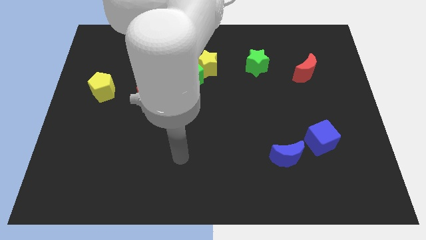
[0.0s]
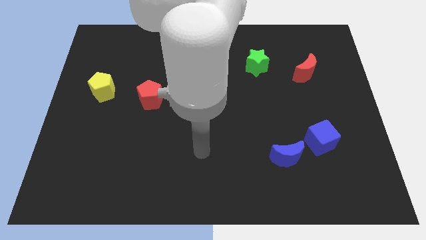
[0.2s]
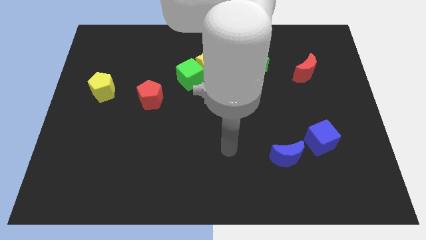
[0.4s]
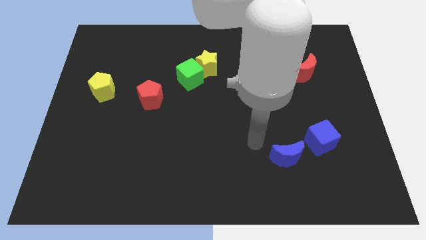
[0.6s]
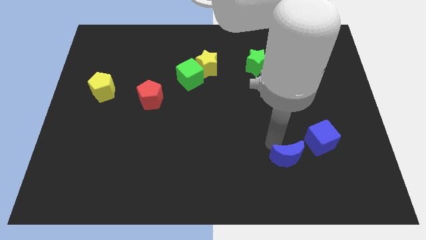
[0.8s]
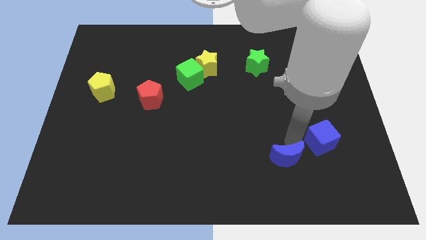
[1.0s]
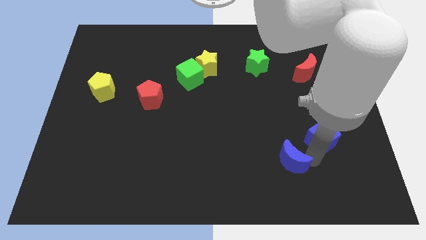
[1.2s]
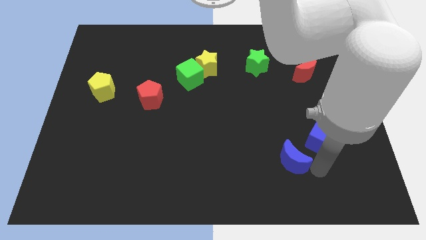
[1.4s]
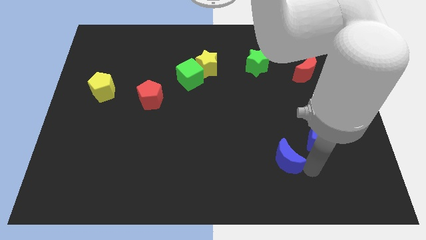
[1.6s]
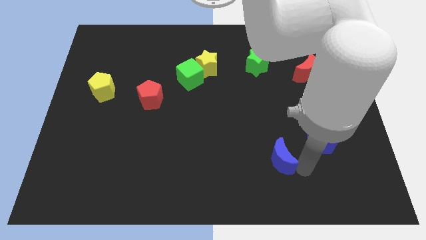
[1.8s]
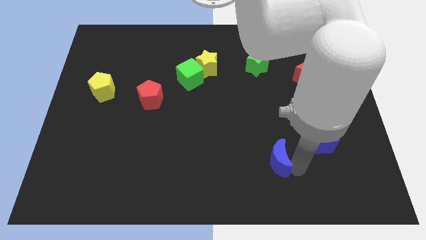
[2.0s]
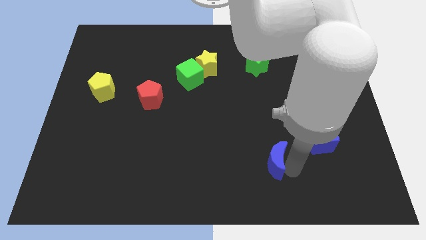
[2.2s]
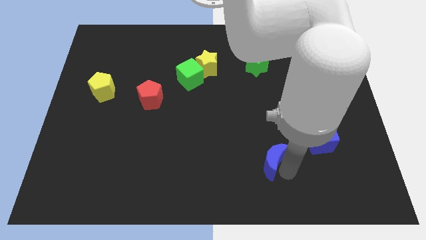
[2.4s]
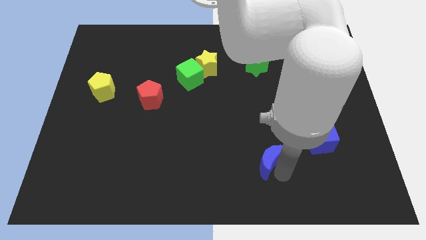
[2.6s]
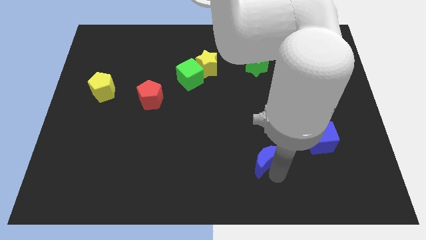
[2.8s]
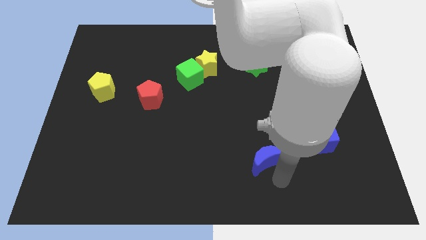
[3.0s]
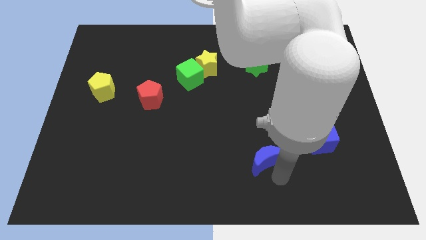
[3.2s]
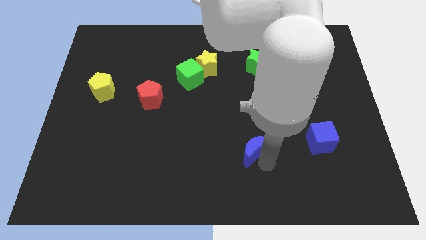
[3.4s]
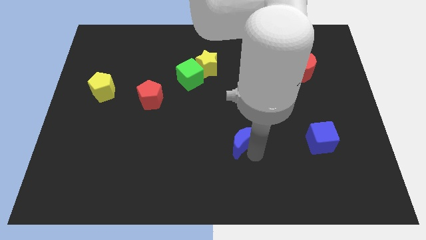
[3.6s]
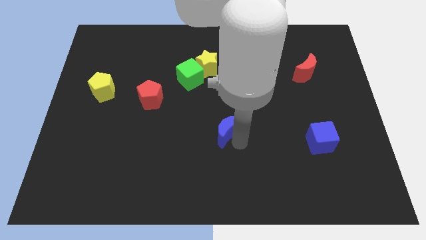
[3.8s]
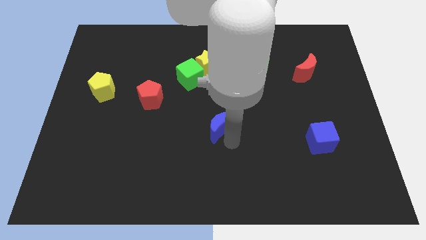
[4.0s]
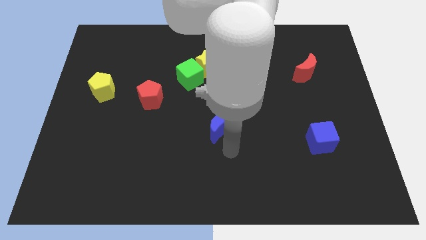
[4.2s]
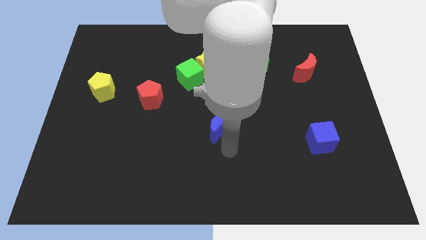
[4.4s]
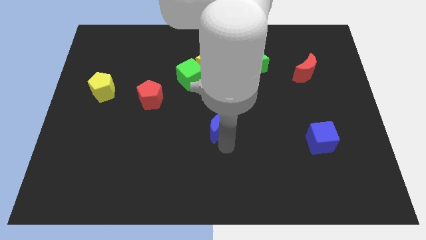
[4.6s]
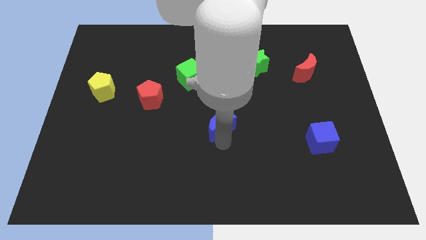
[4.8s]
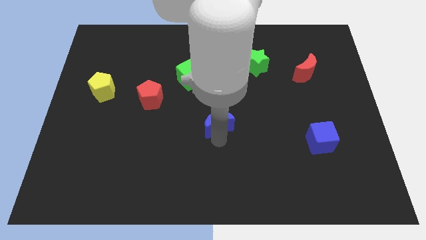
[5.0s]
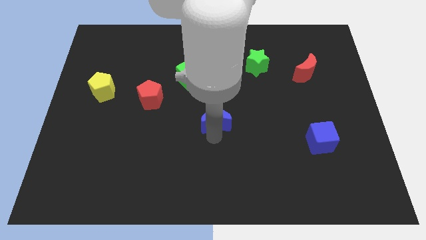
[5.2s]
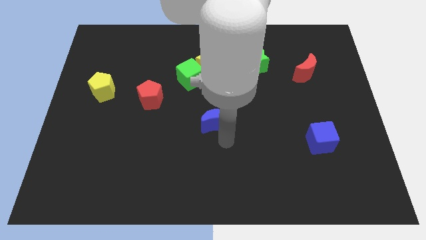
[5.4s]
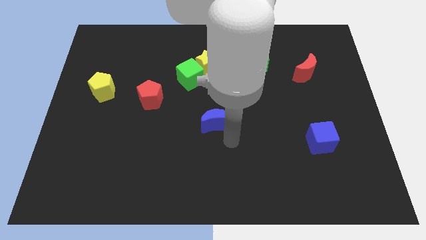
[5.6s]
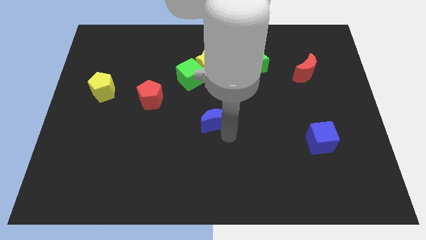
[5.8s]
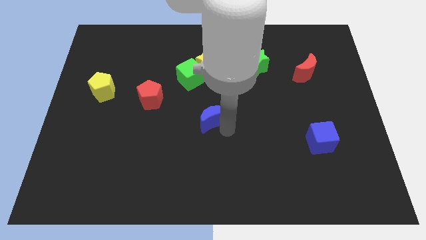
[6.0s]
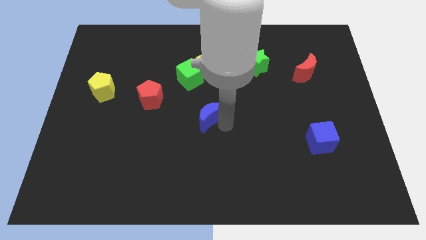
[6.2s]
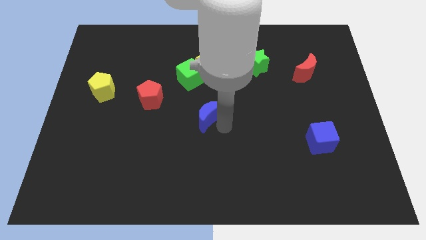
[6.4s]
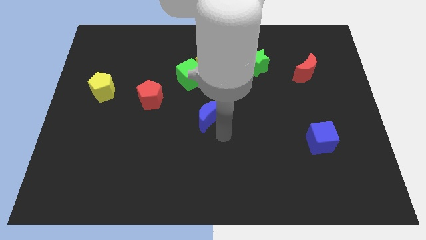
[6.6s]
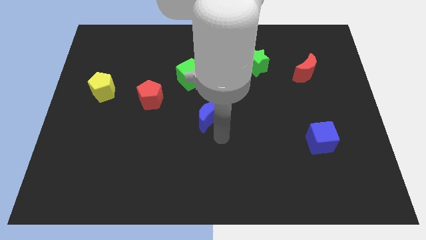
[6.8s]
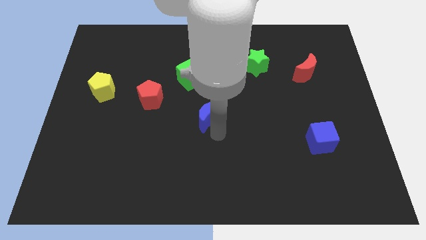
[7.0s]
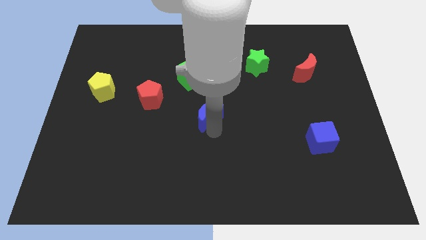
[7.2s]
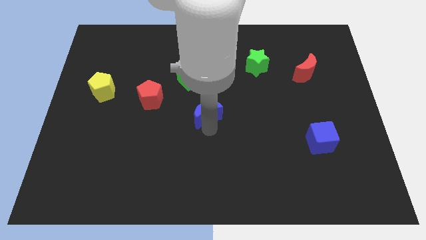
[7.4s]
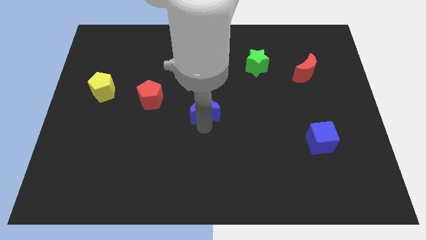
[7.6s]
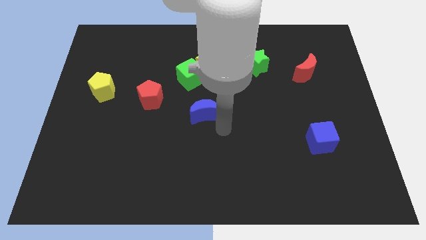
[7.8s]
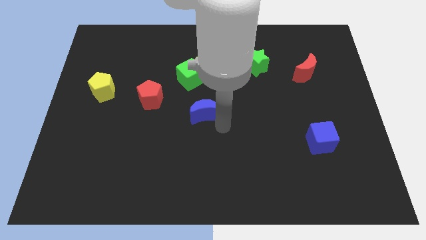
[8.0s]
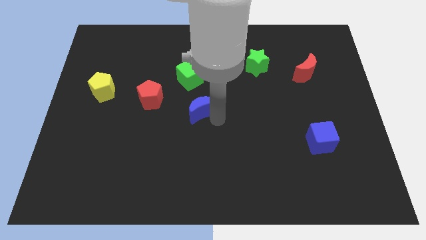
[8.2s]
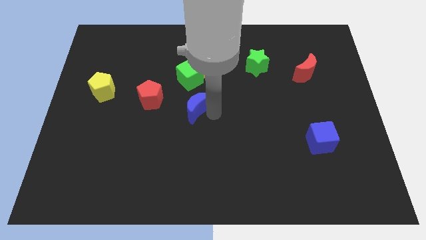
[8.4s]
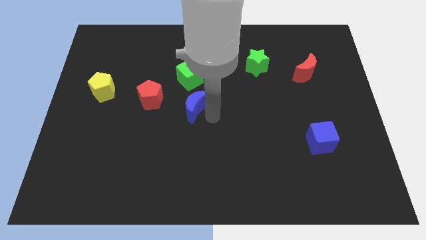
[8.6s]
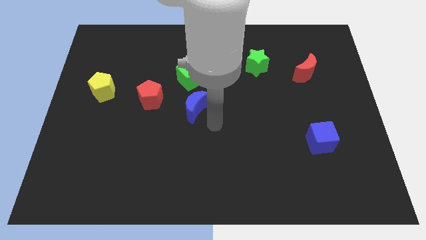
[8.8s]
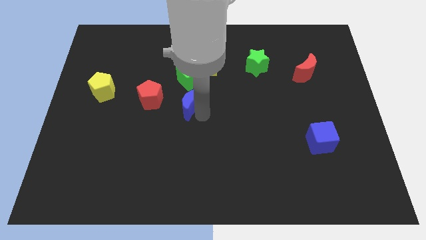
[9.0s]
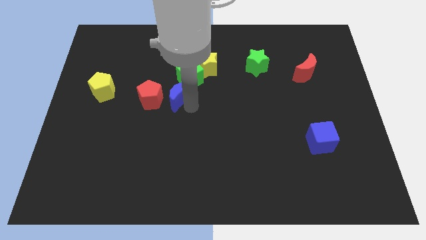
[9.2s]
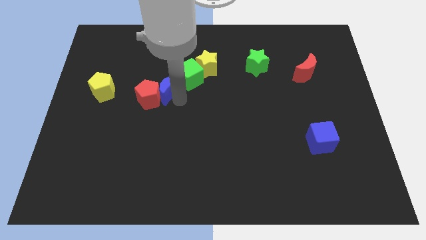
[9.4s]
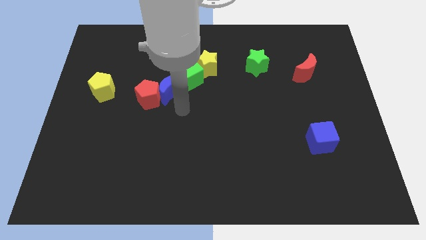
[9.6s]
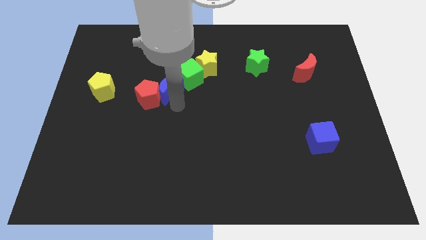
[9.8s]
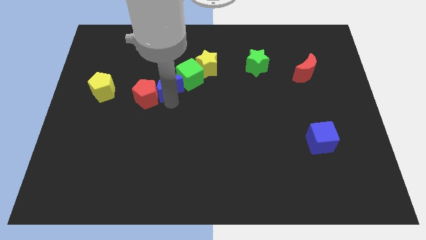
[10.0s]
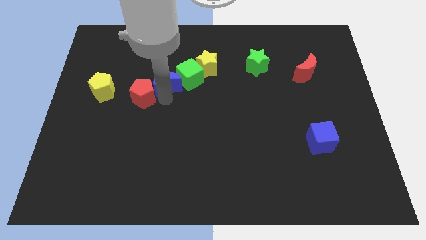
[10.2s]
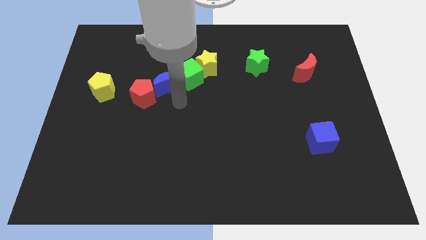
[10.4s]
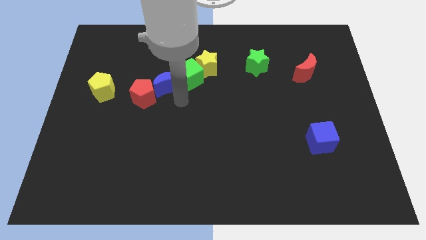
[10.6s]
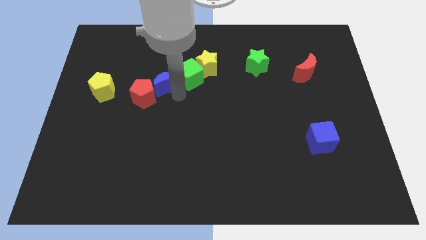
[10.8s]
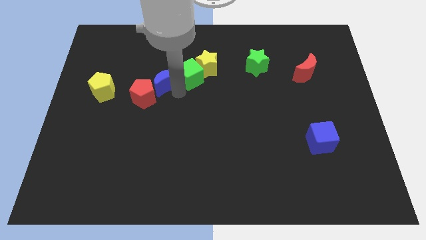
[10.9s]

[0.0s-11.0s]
push the blue moon to the top side of the red pentagon

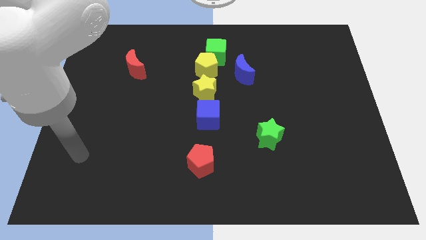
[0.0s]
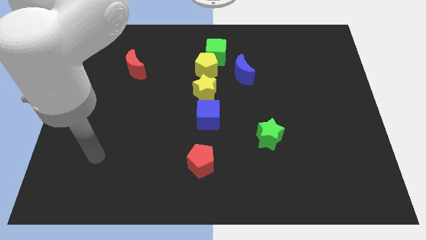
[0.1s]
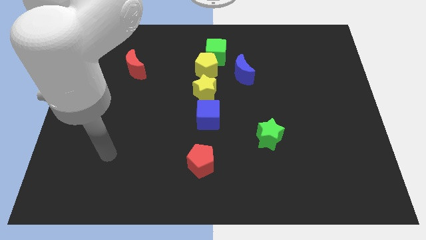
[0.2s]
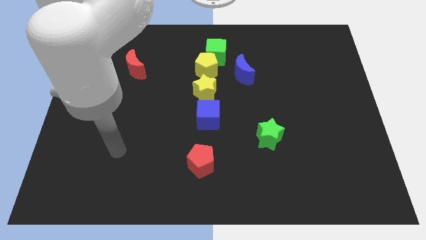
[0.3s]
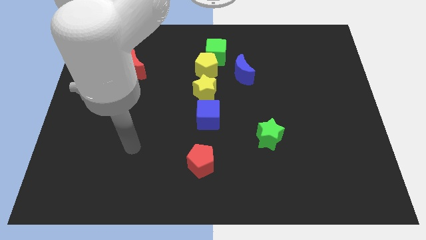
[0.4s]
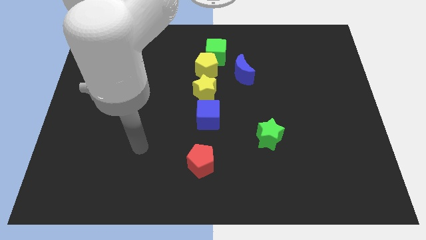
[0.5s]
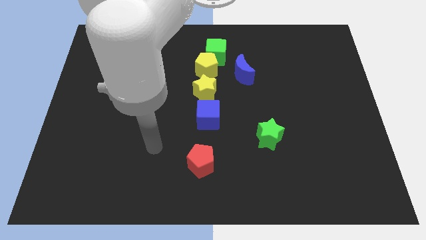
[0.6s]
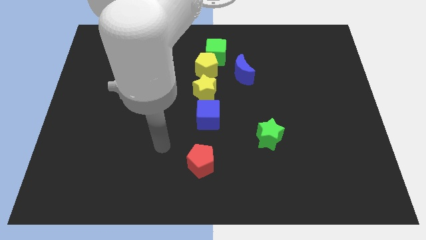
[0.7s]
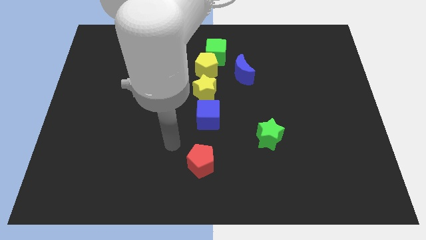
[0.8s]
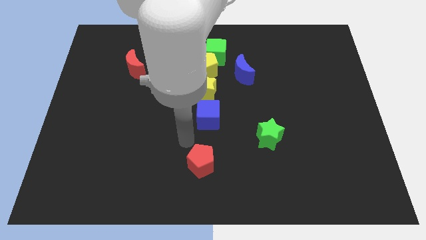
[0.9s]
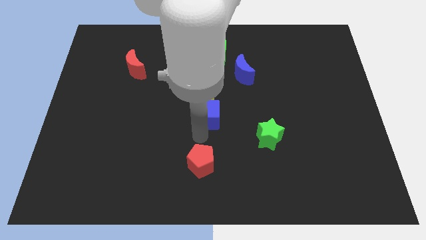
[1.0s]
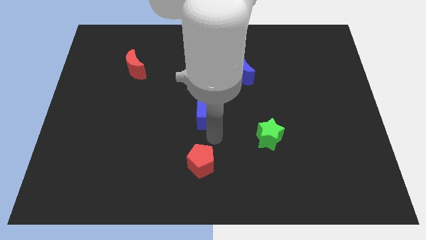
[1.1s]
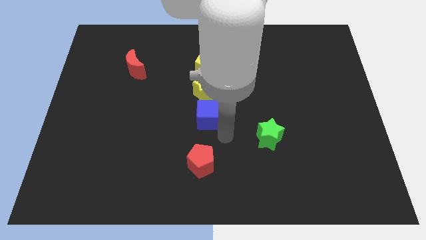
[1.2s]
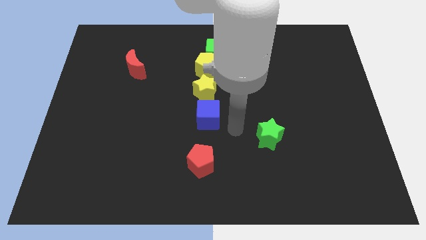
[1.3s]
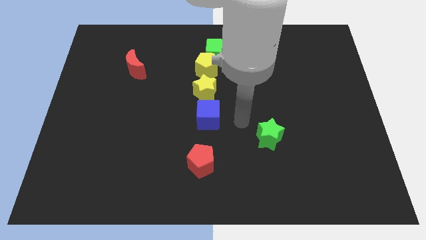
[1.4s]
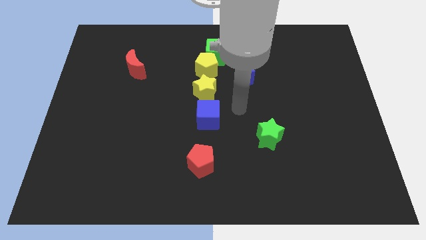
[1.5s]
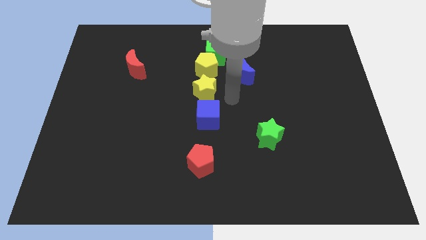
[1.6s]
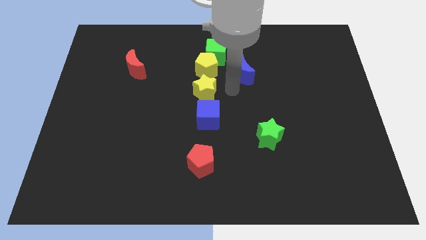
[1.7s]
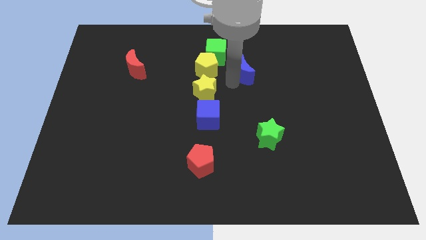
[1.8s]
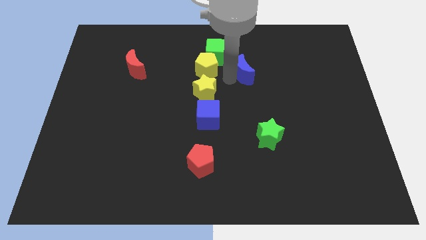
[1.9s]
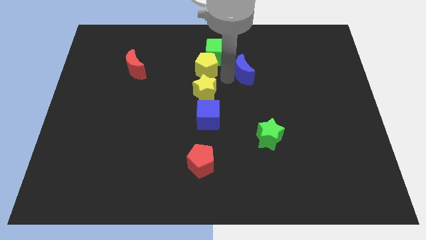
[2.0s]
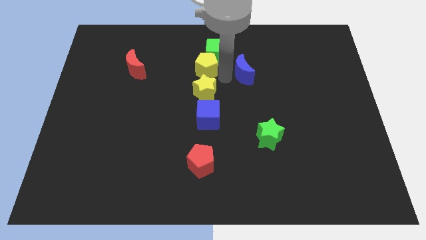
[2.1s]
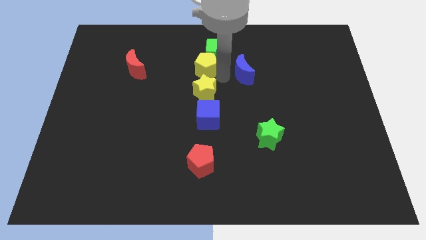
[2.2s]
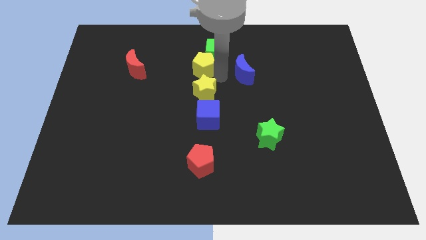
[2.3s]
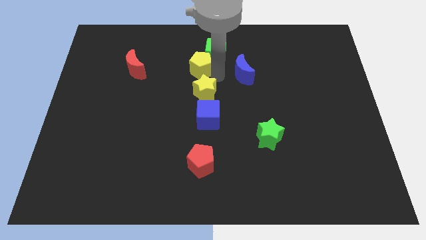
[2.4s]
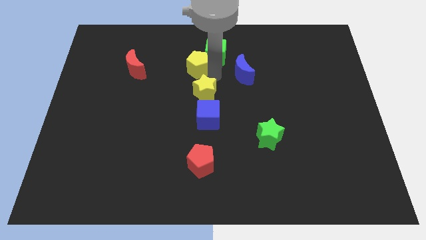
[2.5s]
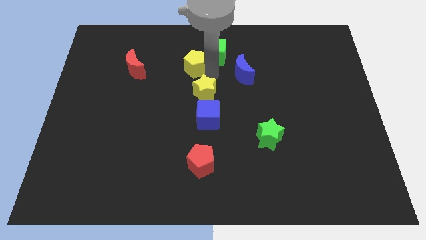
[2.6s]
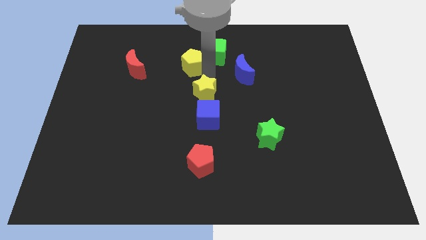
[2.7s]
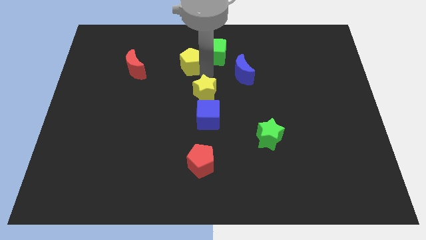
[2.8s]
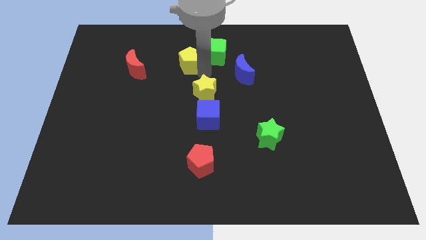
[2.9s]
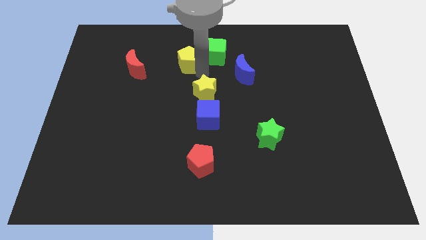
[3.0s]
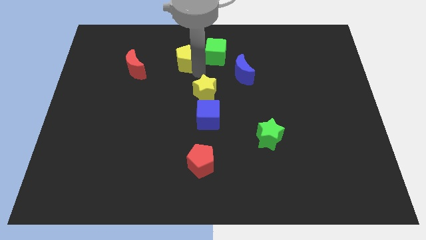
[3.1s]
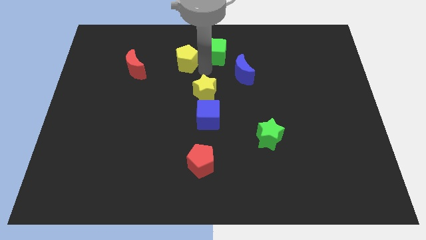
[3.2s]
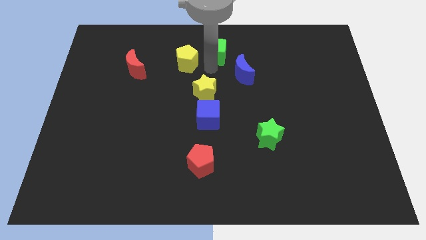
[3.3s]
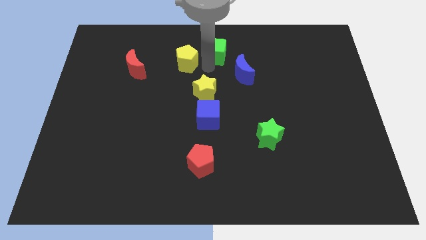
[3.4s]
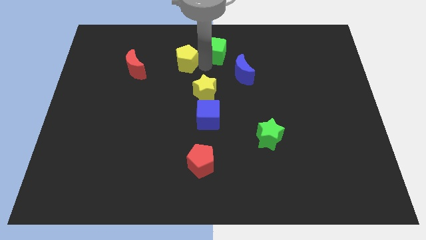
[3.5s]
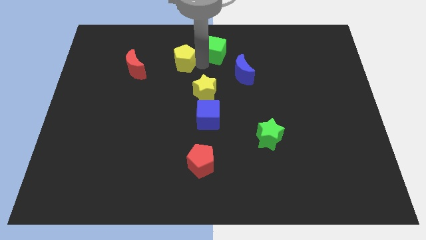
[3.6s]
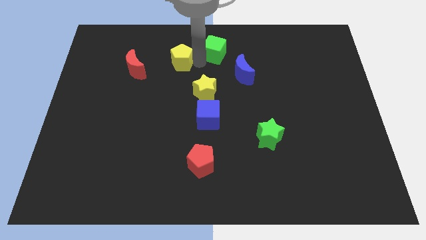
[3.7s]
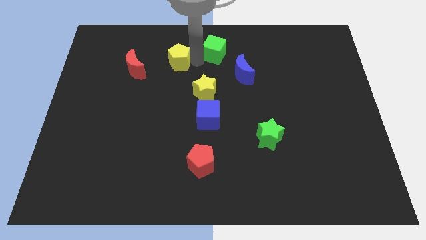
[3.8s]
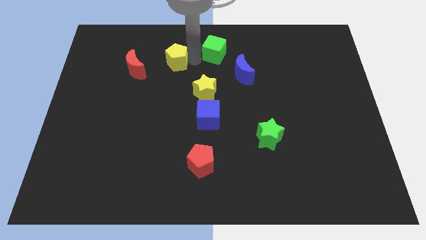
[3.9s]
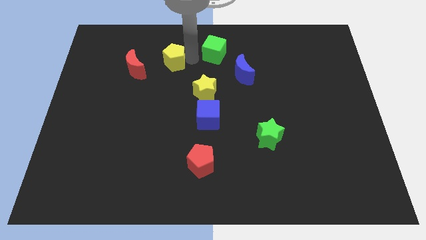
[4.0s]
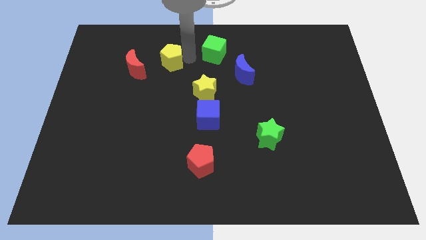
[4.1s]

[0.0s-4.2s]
move the yellow pentagon to the top right of the red moon
